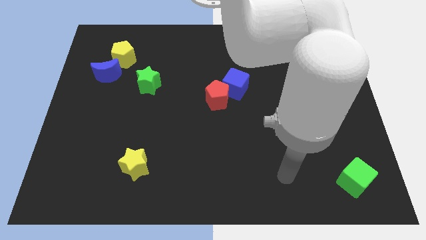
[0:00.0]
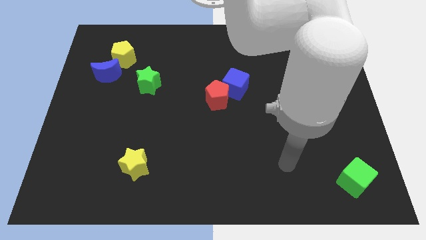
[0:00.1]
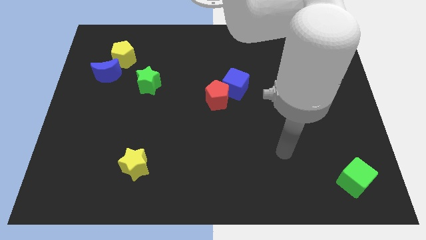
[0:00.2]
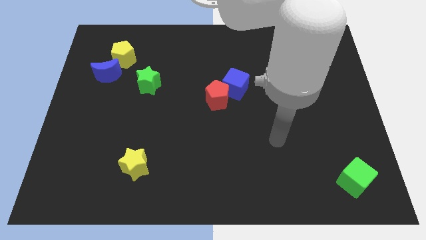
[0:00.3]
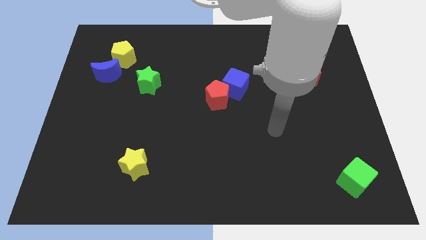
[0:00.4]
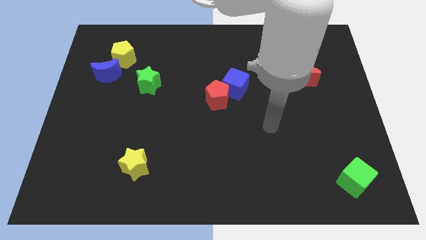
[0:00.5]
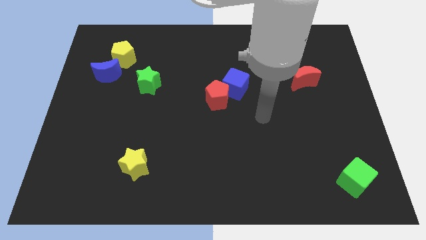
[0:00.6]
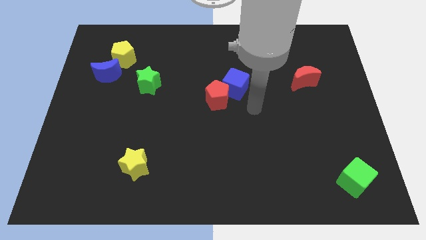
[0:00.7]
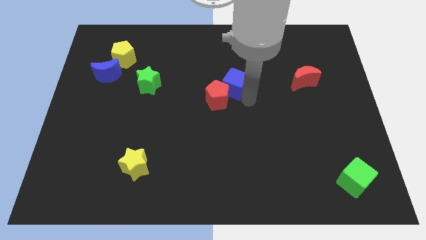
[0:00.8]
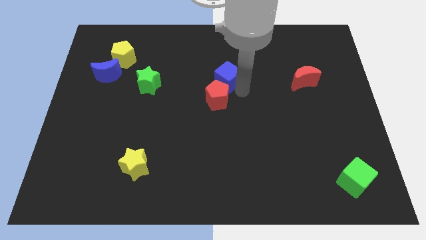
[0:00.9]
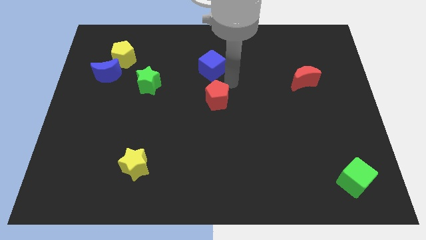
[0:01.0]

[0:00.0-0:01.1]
separate the red pentagon from the blue cube

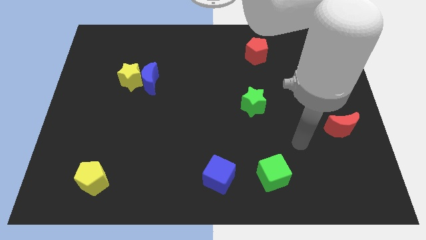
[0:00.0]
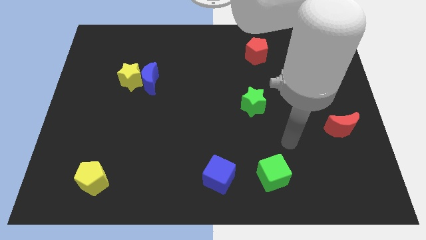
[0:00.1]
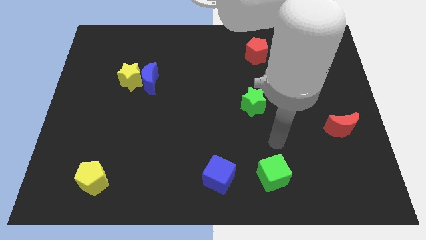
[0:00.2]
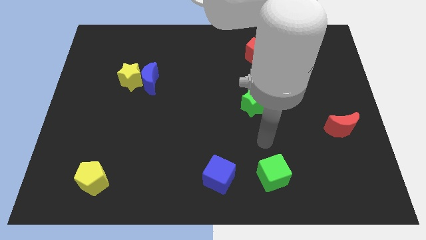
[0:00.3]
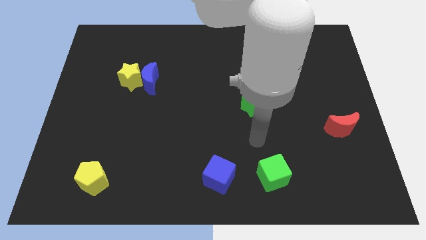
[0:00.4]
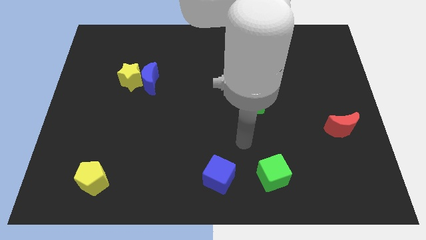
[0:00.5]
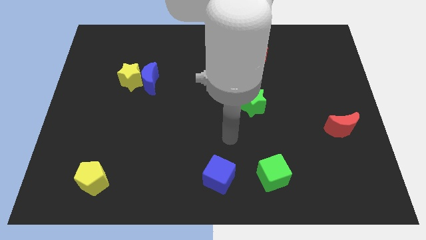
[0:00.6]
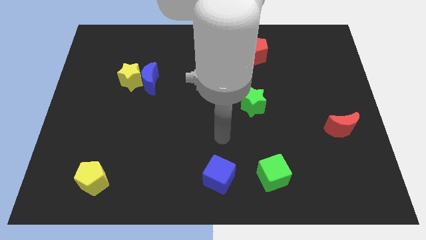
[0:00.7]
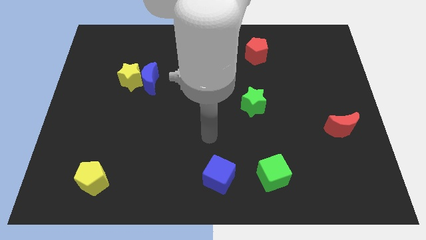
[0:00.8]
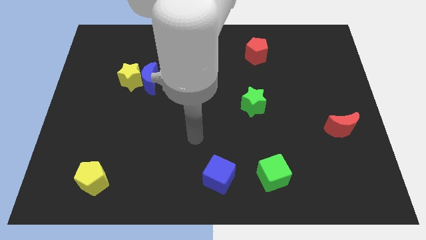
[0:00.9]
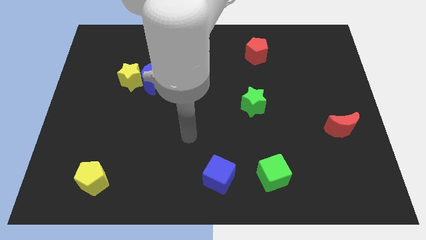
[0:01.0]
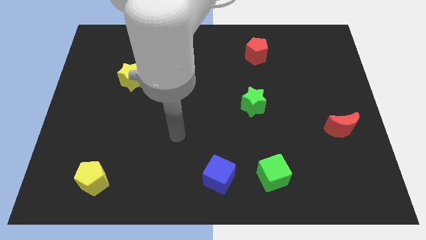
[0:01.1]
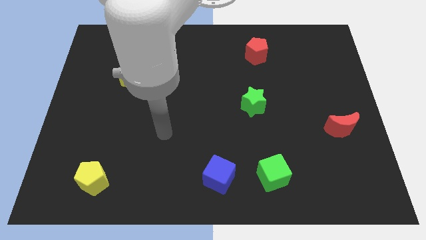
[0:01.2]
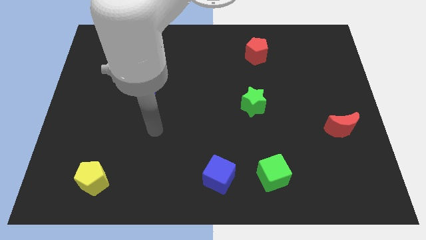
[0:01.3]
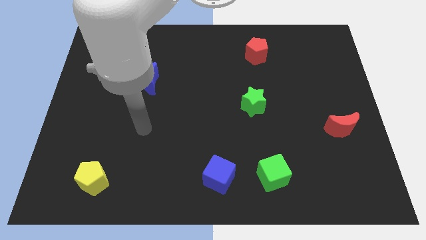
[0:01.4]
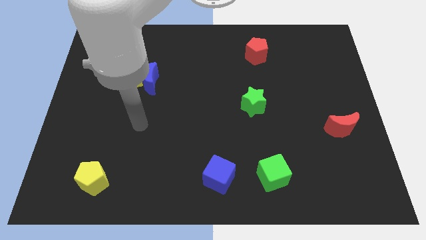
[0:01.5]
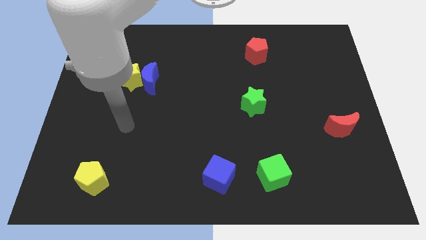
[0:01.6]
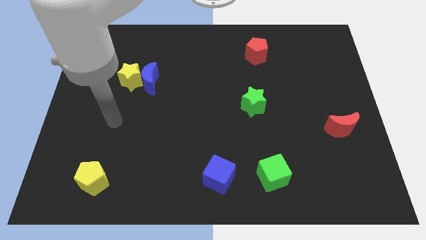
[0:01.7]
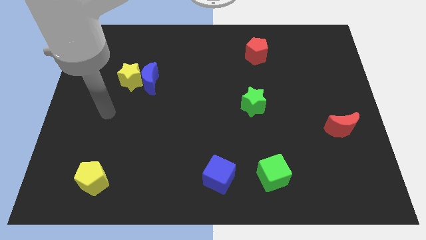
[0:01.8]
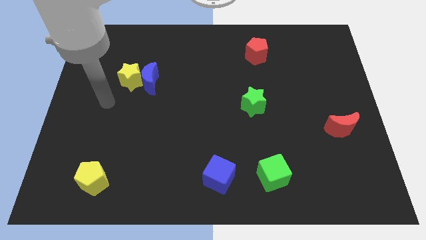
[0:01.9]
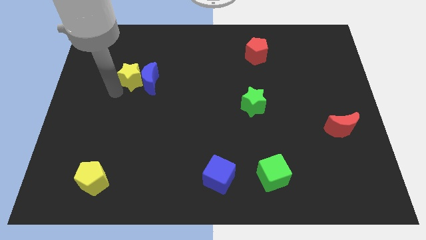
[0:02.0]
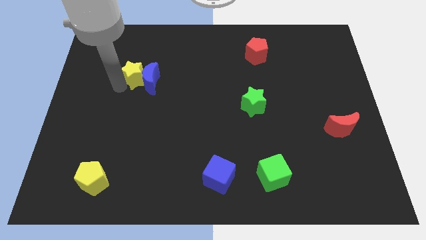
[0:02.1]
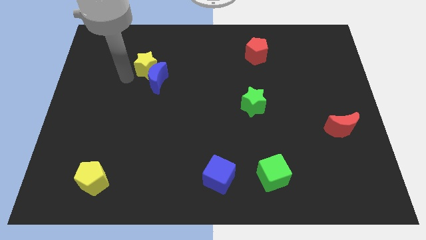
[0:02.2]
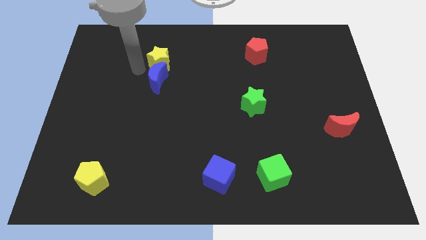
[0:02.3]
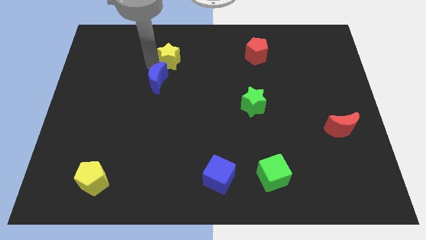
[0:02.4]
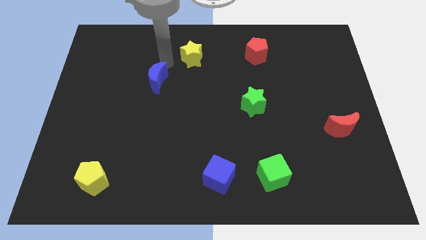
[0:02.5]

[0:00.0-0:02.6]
pull the blue moon apart from the yellow star

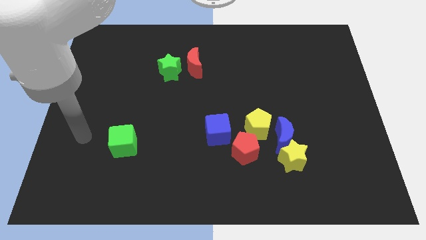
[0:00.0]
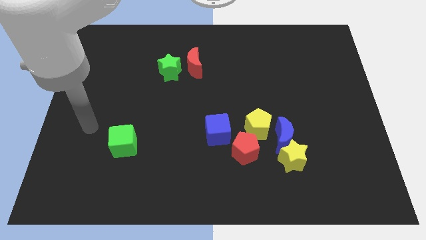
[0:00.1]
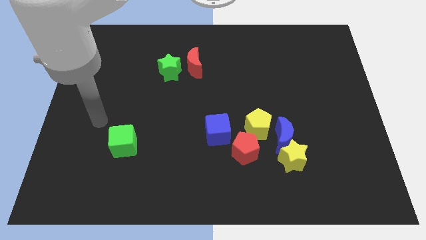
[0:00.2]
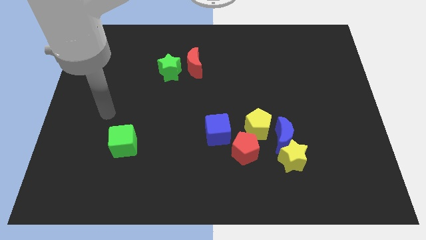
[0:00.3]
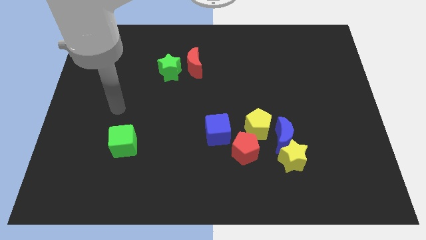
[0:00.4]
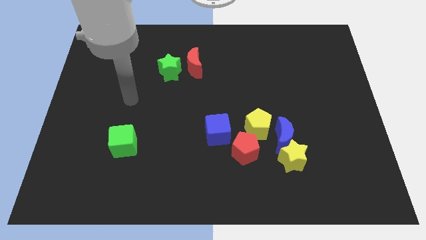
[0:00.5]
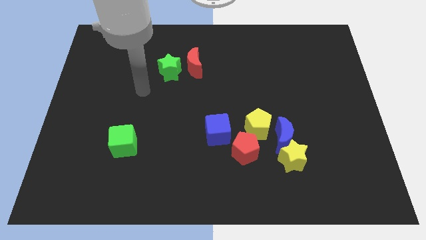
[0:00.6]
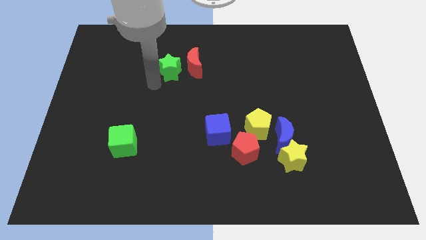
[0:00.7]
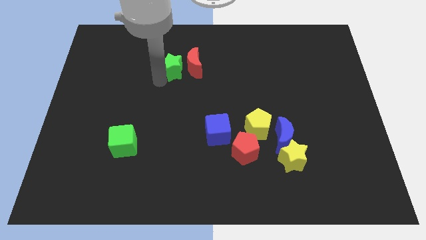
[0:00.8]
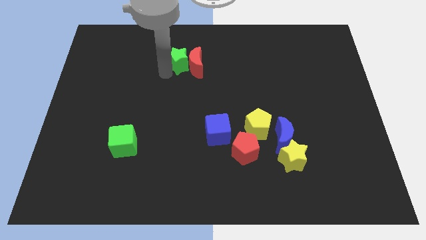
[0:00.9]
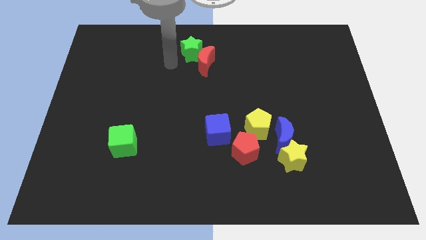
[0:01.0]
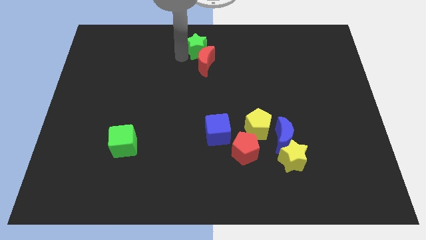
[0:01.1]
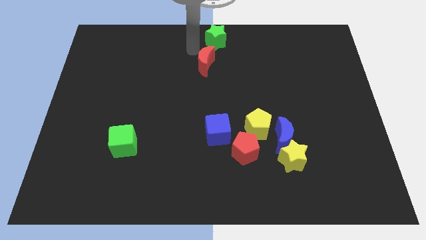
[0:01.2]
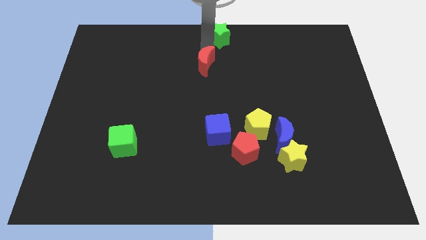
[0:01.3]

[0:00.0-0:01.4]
move the red moon away from the green star

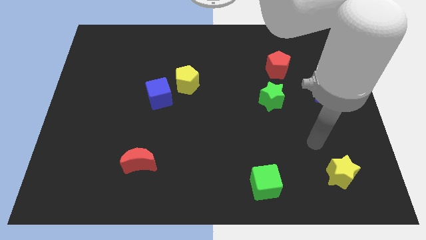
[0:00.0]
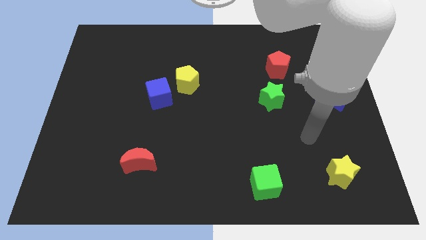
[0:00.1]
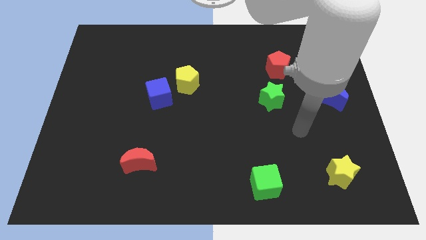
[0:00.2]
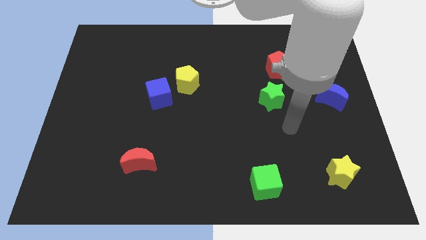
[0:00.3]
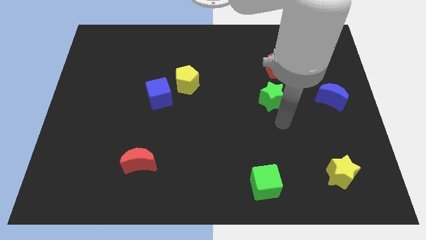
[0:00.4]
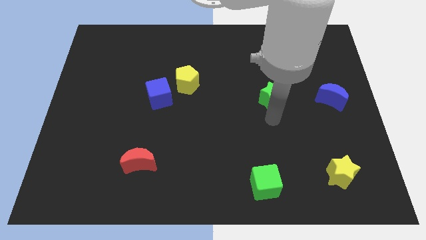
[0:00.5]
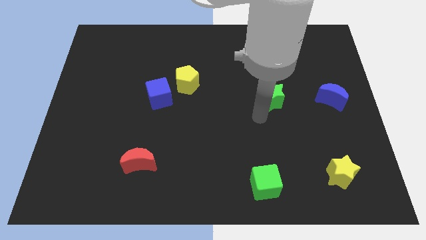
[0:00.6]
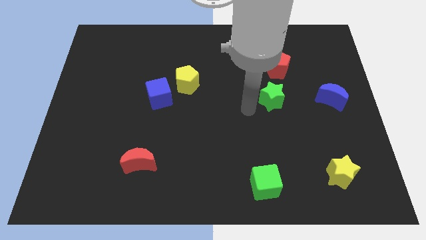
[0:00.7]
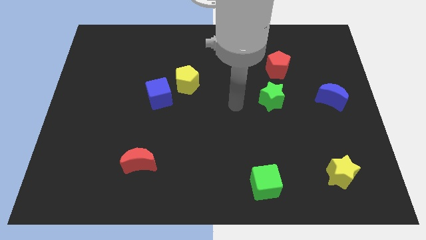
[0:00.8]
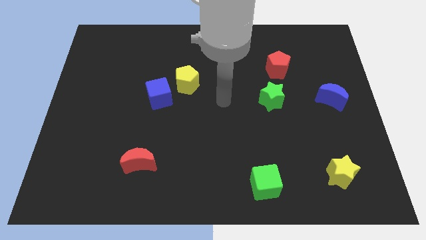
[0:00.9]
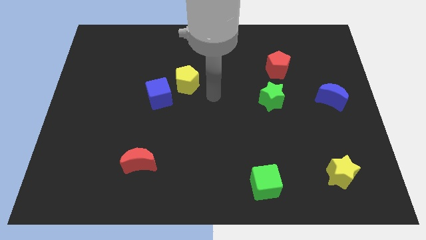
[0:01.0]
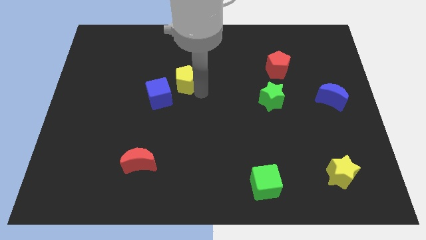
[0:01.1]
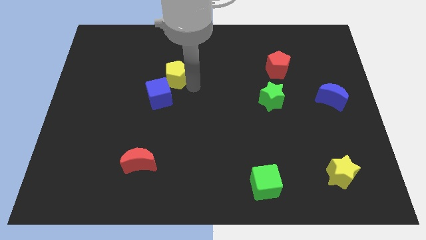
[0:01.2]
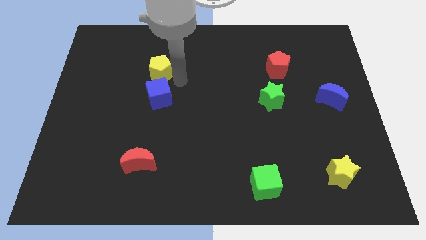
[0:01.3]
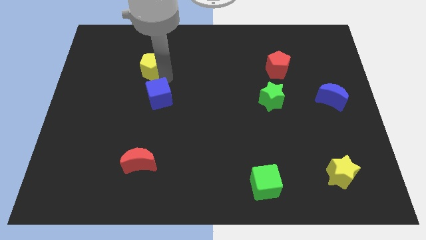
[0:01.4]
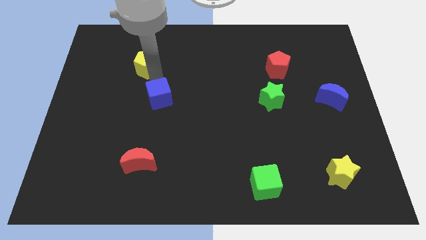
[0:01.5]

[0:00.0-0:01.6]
pull the blue cube apart from the yellow pentagon

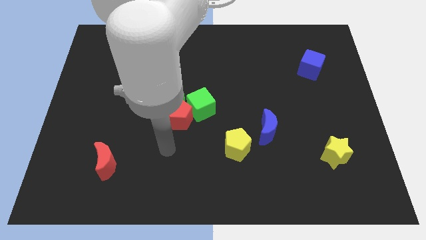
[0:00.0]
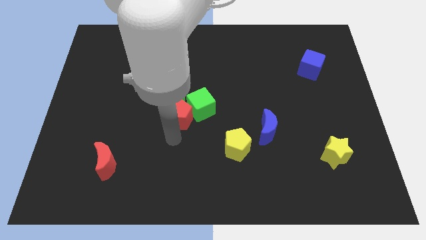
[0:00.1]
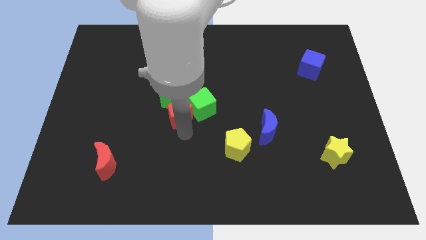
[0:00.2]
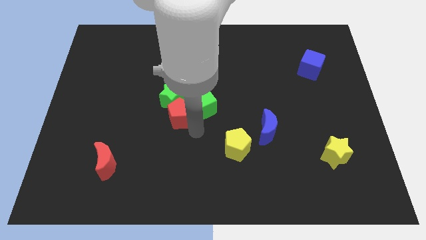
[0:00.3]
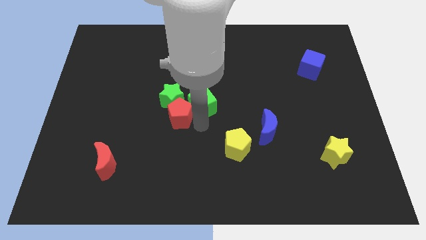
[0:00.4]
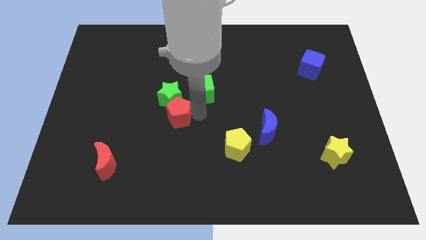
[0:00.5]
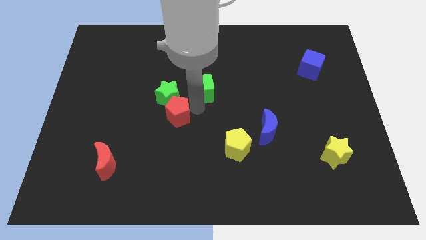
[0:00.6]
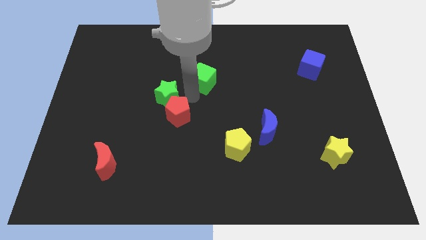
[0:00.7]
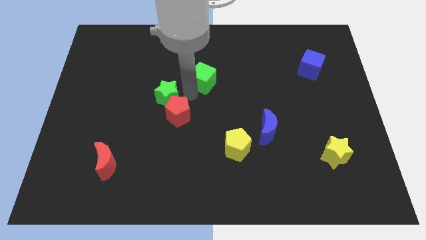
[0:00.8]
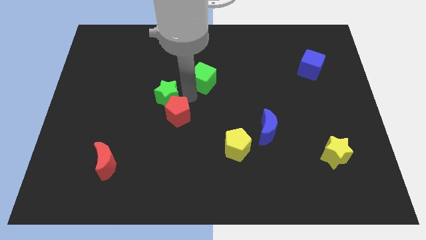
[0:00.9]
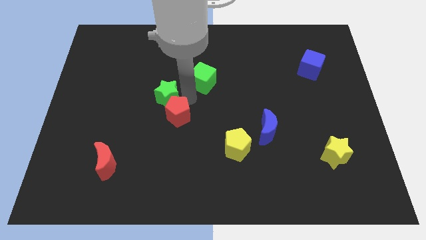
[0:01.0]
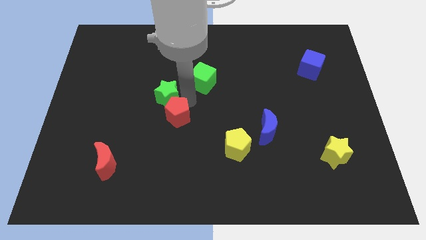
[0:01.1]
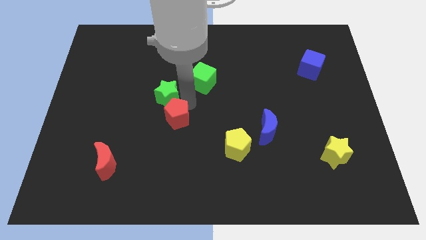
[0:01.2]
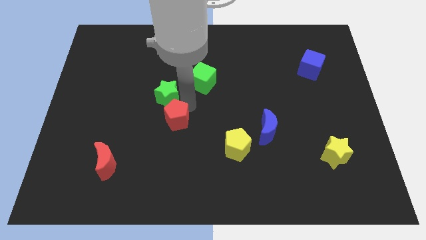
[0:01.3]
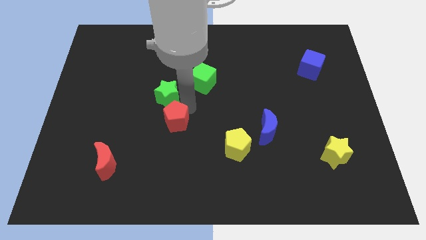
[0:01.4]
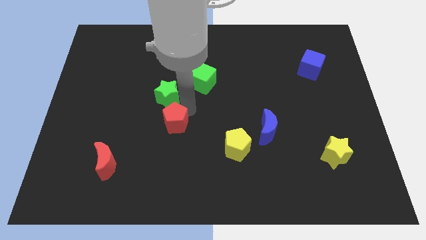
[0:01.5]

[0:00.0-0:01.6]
pull the red pentagon apart from the green cube and green star

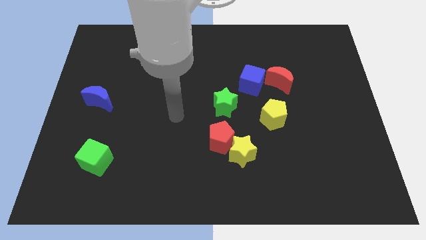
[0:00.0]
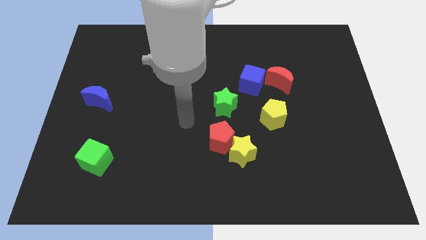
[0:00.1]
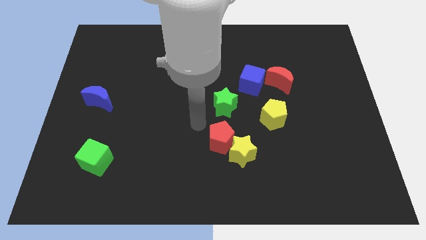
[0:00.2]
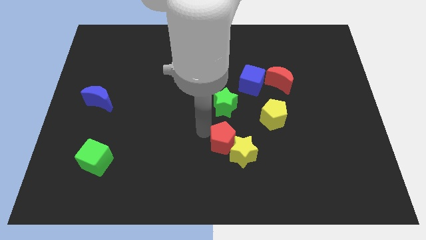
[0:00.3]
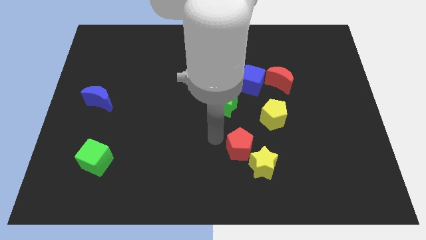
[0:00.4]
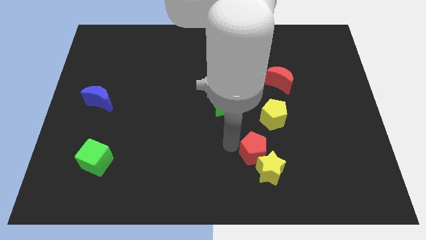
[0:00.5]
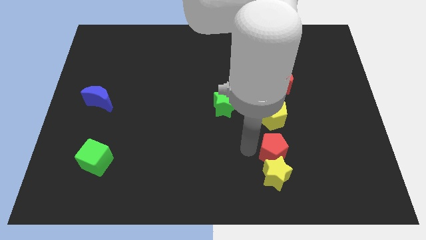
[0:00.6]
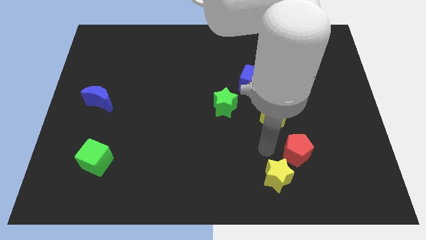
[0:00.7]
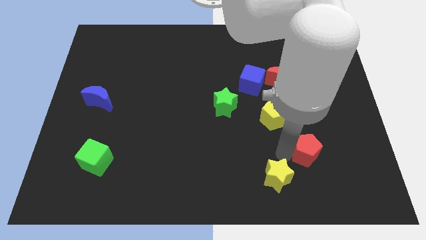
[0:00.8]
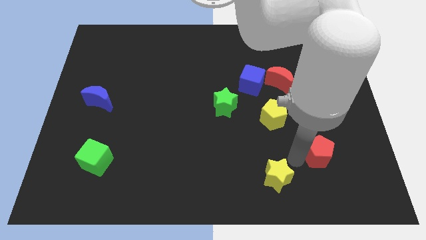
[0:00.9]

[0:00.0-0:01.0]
pull the yellow star apart from the red pentagon

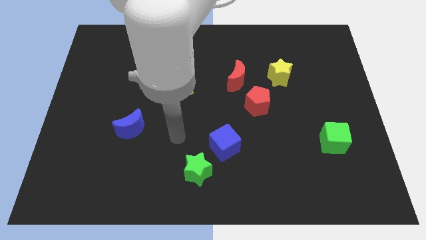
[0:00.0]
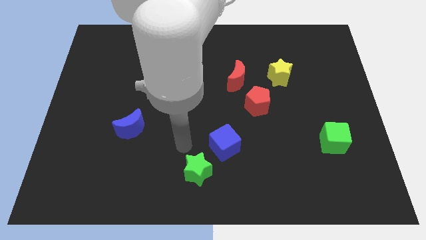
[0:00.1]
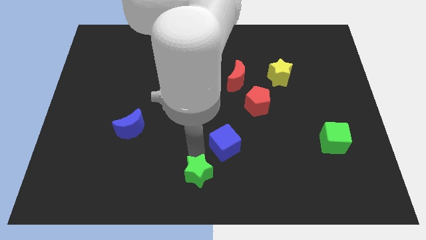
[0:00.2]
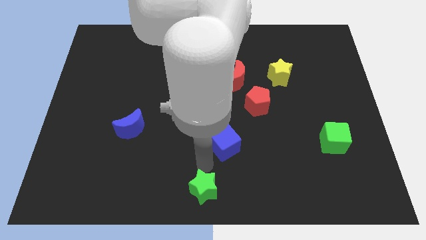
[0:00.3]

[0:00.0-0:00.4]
separate the blue cube from the green star
